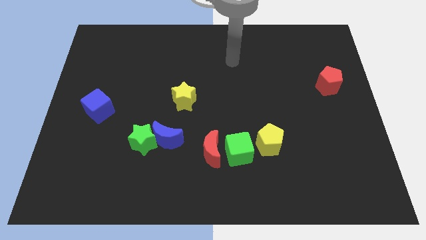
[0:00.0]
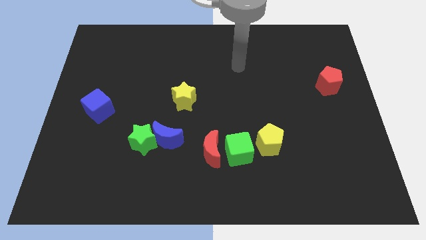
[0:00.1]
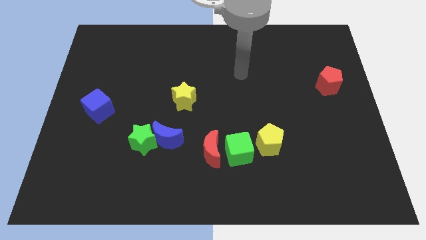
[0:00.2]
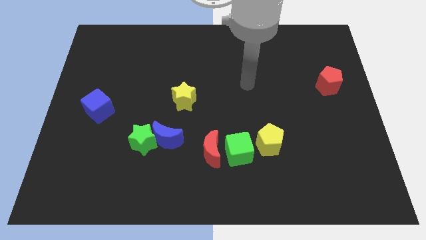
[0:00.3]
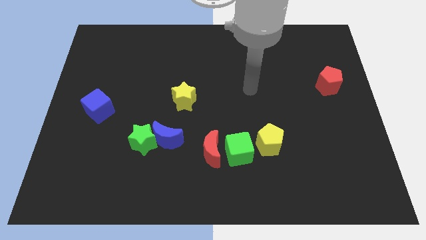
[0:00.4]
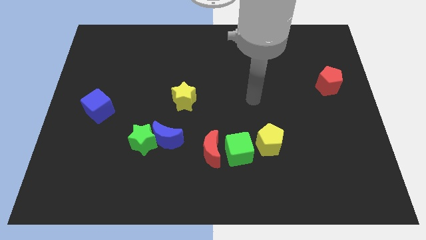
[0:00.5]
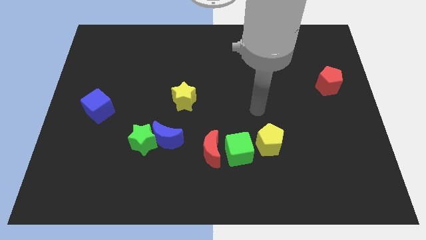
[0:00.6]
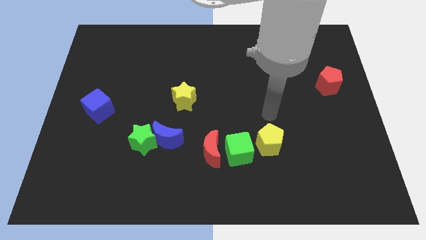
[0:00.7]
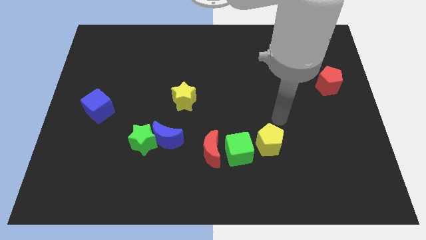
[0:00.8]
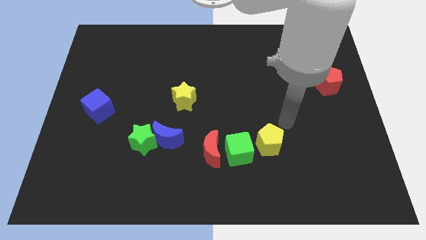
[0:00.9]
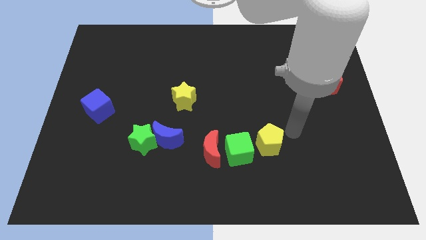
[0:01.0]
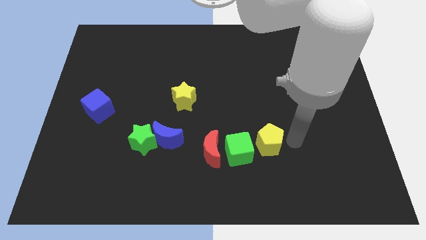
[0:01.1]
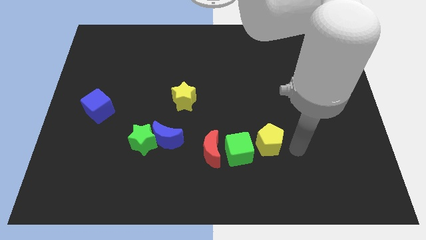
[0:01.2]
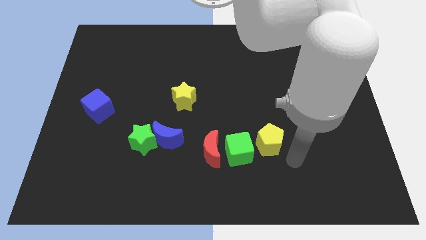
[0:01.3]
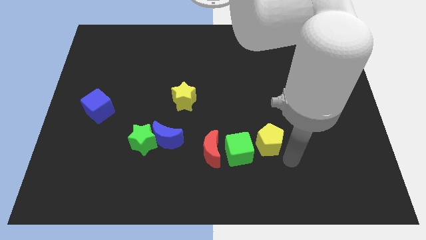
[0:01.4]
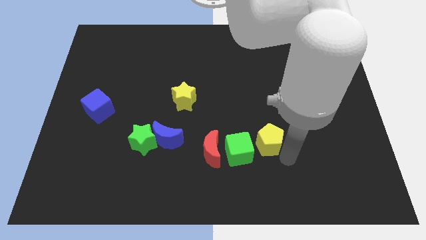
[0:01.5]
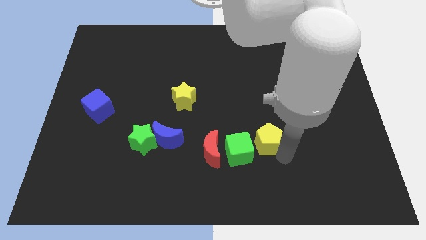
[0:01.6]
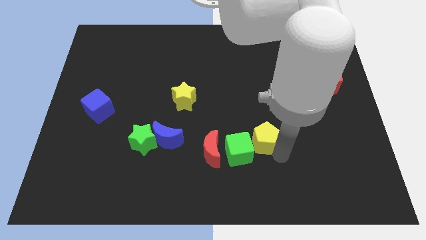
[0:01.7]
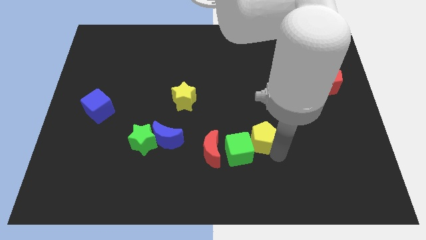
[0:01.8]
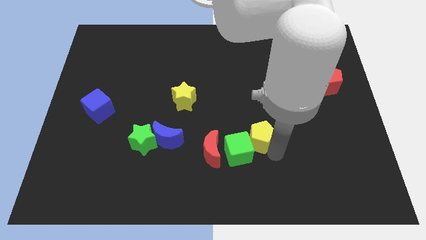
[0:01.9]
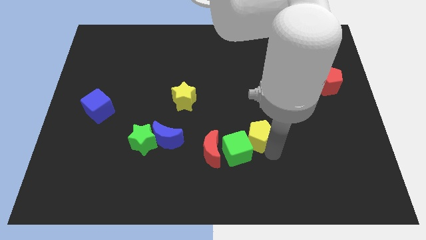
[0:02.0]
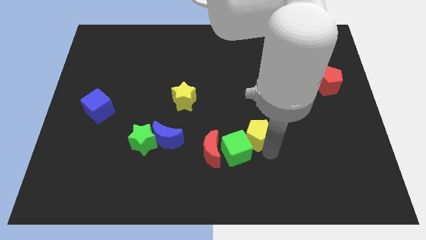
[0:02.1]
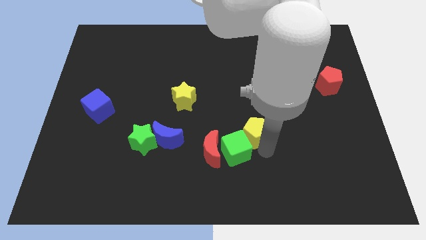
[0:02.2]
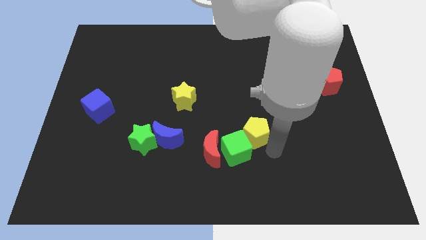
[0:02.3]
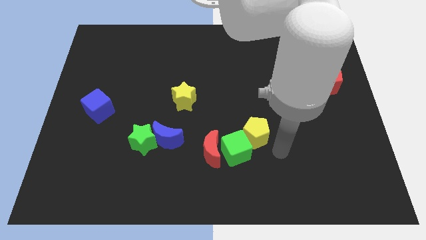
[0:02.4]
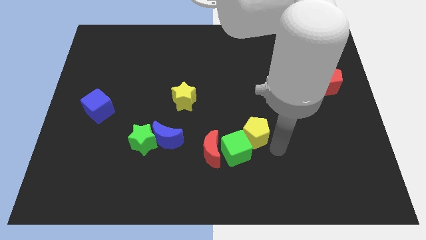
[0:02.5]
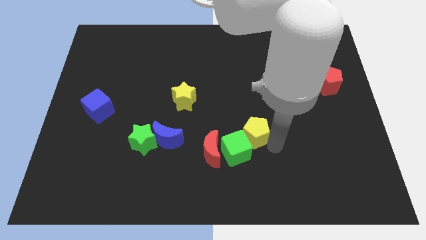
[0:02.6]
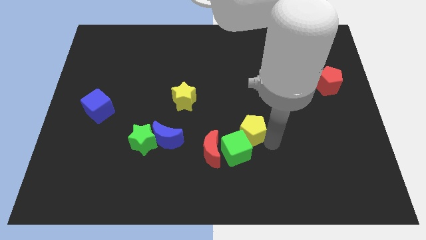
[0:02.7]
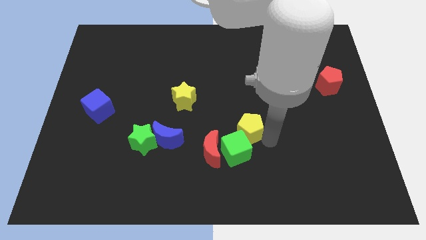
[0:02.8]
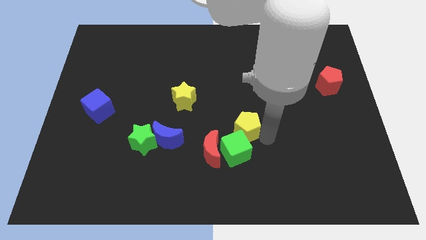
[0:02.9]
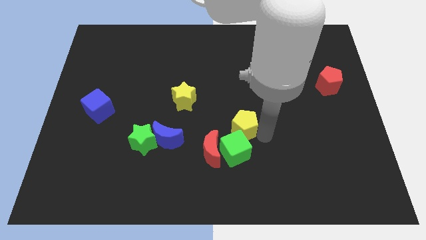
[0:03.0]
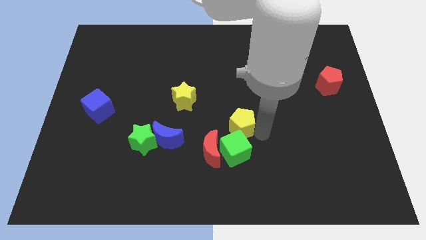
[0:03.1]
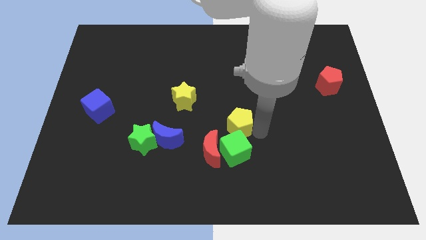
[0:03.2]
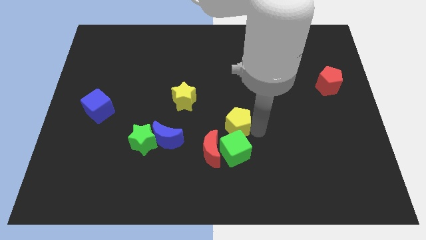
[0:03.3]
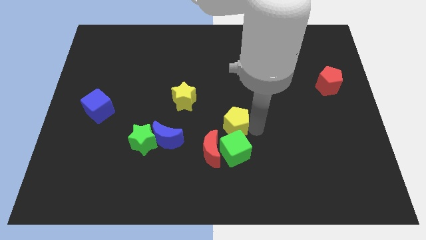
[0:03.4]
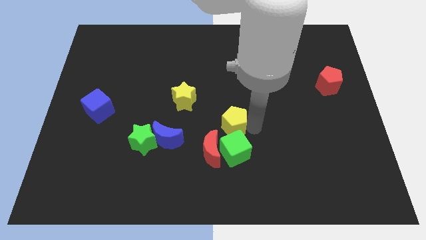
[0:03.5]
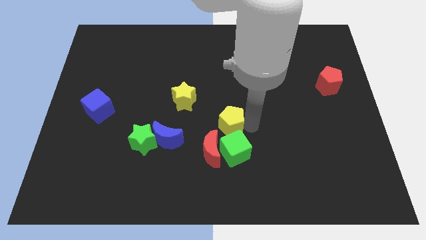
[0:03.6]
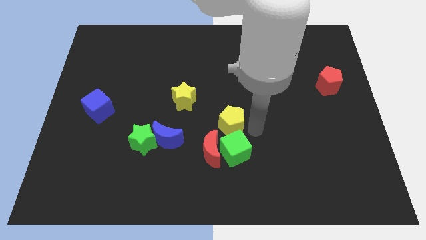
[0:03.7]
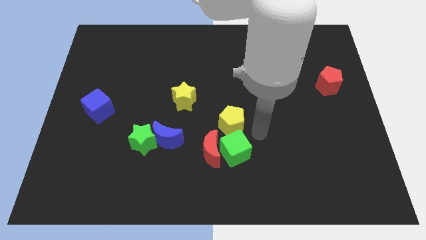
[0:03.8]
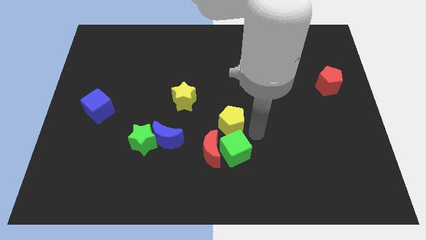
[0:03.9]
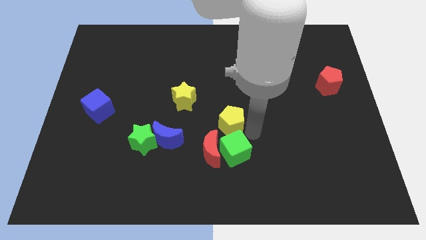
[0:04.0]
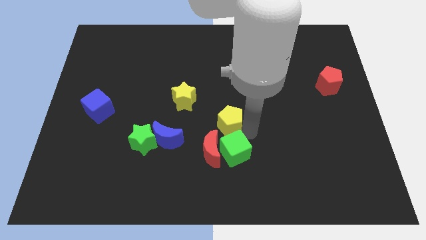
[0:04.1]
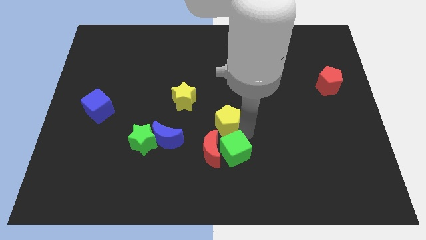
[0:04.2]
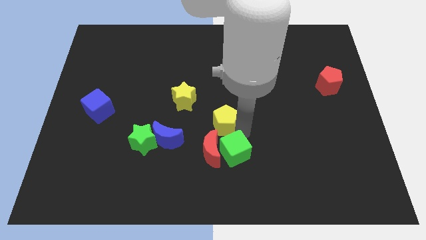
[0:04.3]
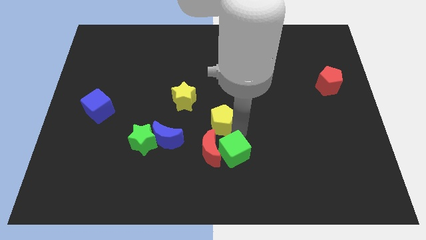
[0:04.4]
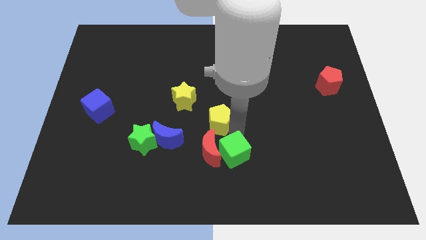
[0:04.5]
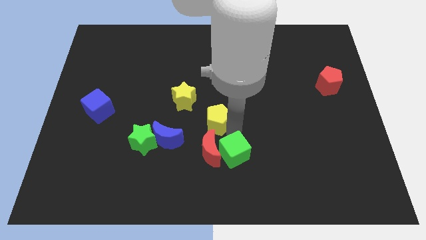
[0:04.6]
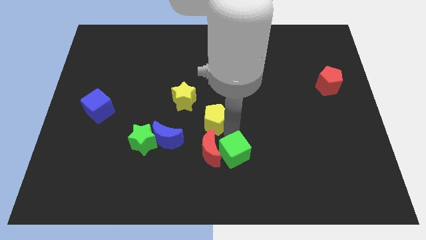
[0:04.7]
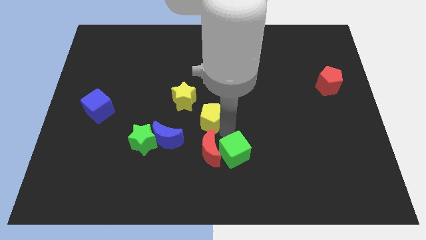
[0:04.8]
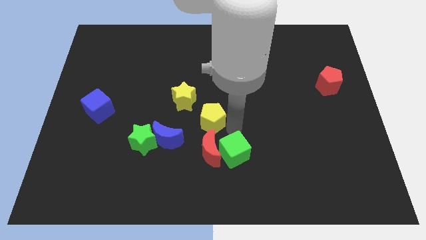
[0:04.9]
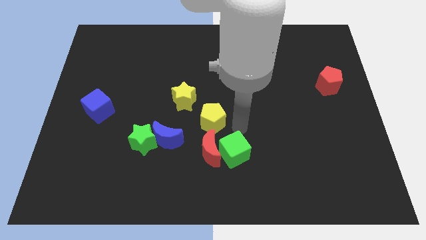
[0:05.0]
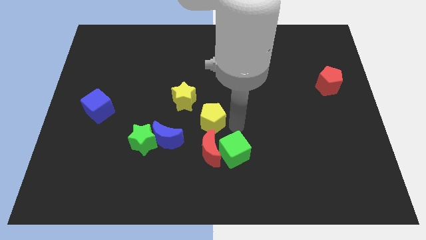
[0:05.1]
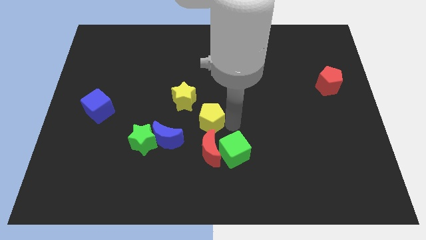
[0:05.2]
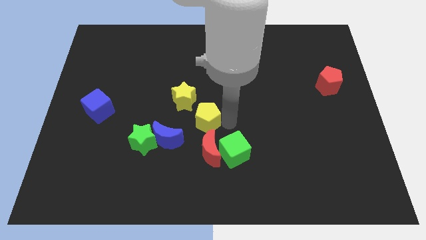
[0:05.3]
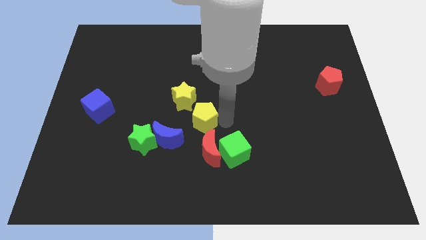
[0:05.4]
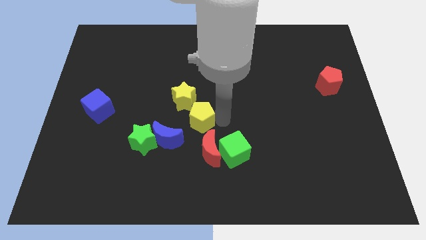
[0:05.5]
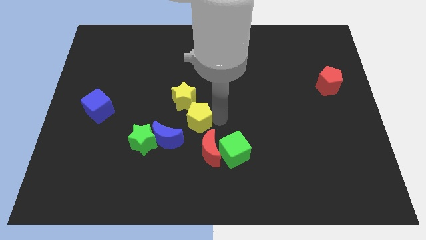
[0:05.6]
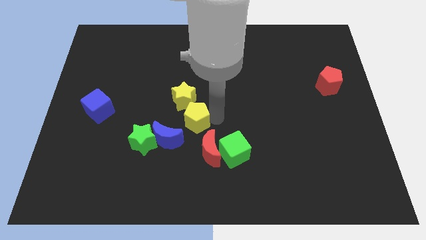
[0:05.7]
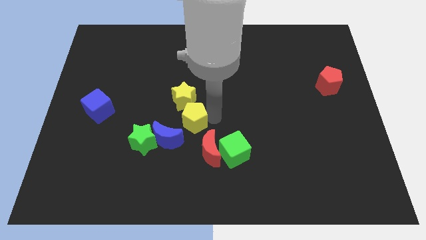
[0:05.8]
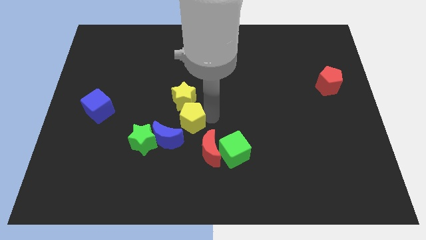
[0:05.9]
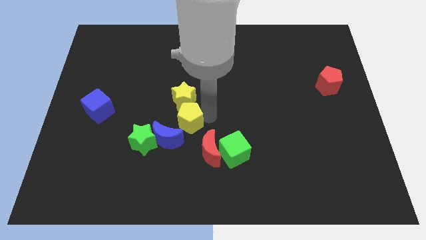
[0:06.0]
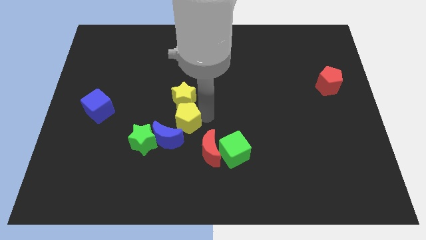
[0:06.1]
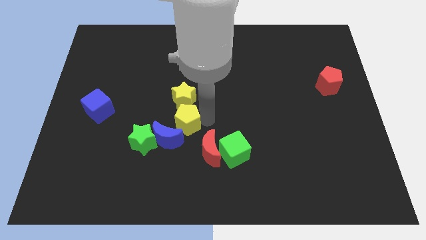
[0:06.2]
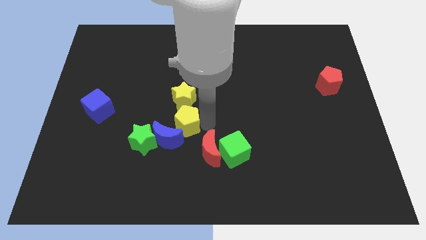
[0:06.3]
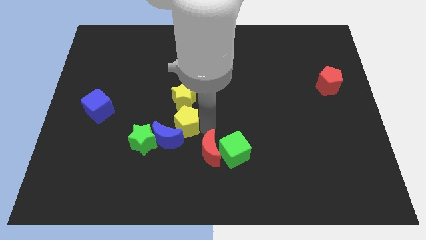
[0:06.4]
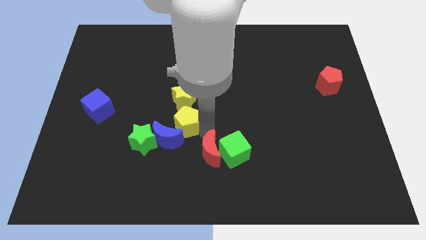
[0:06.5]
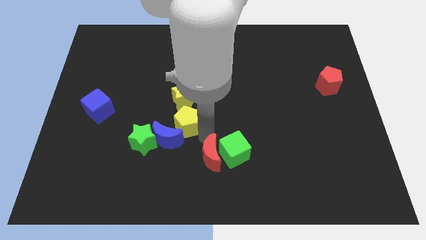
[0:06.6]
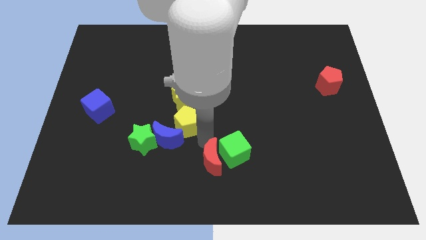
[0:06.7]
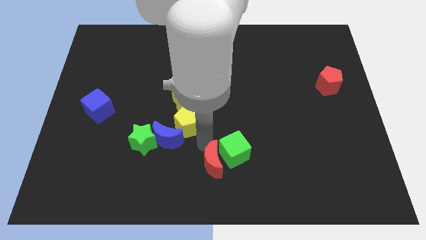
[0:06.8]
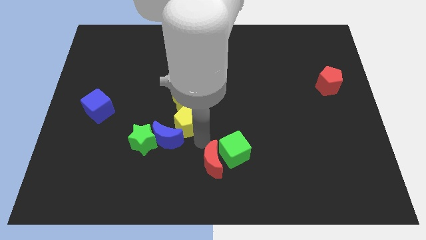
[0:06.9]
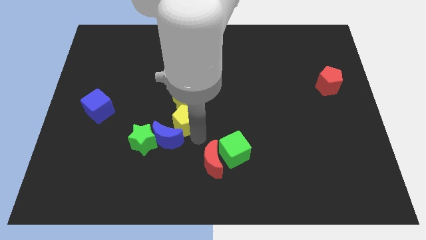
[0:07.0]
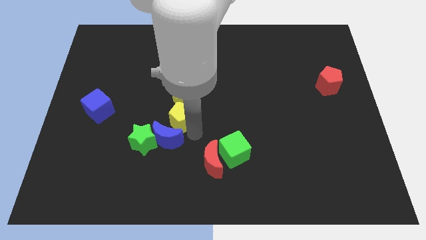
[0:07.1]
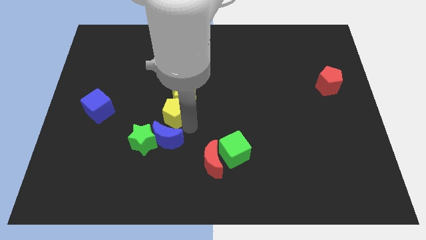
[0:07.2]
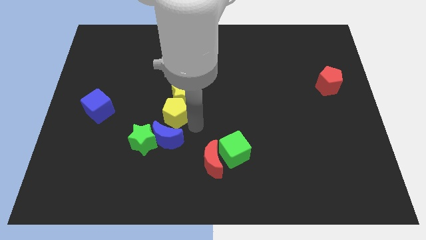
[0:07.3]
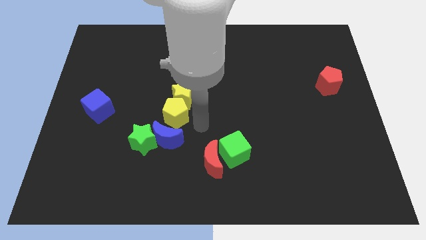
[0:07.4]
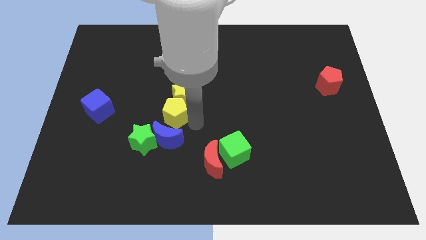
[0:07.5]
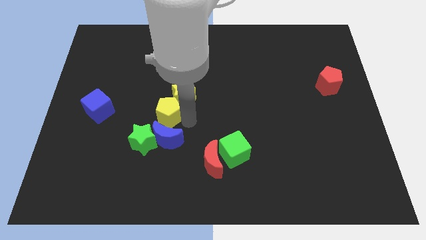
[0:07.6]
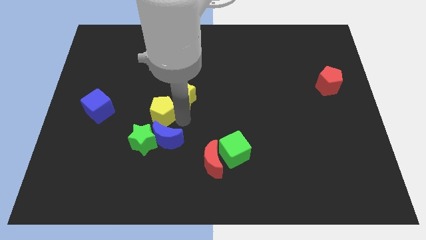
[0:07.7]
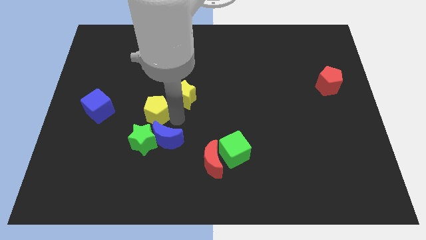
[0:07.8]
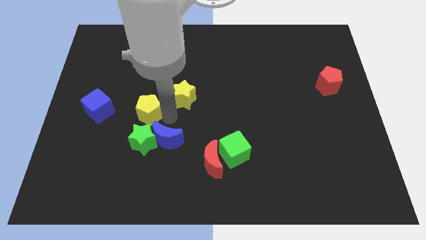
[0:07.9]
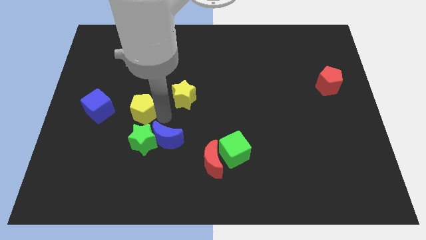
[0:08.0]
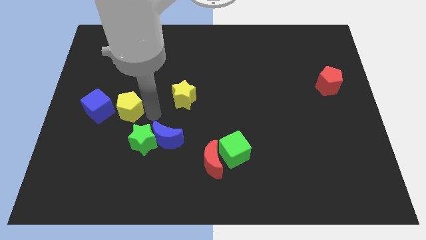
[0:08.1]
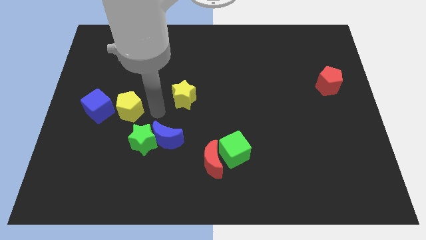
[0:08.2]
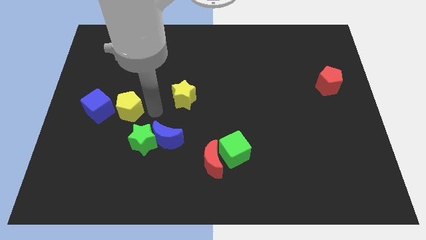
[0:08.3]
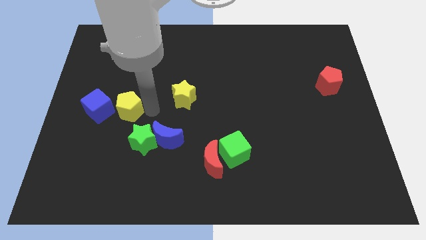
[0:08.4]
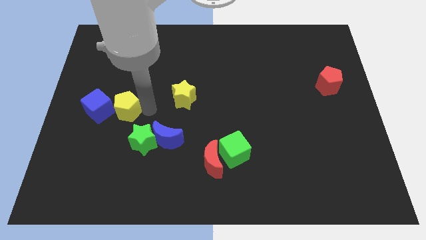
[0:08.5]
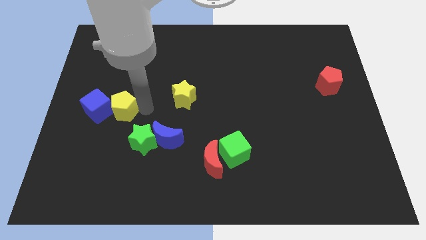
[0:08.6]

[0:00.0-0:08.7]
put the yellow pentagon to the blue cube
